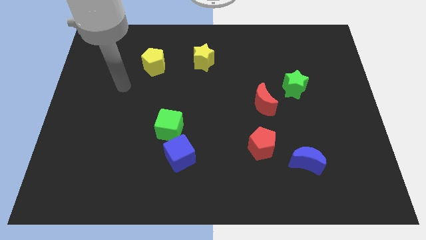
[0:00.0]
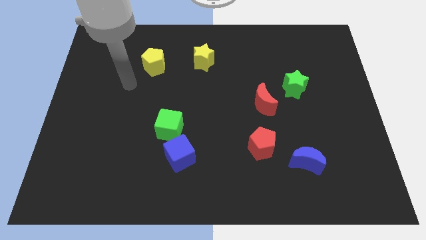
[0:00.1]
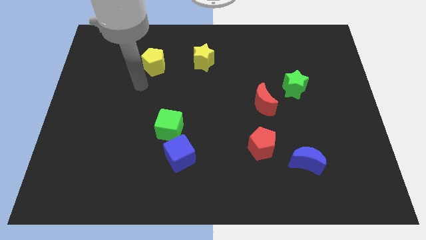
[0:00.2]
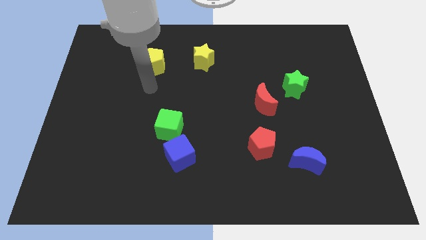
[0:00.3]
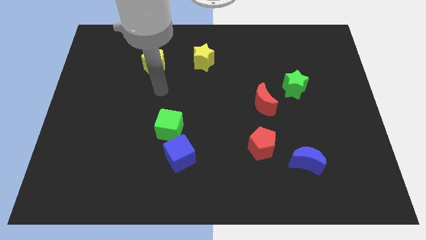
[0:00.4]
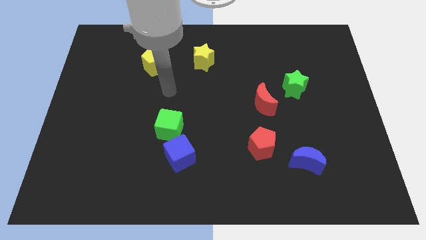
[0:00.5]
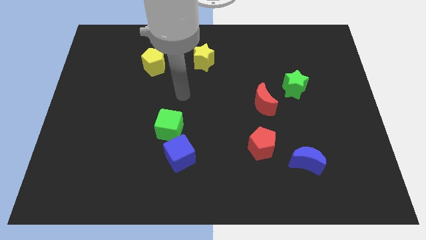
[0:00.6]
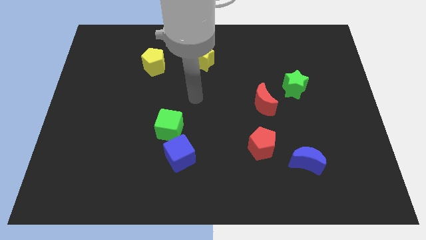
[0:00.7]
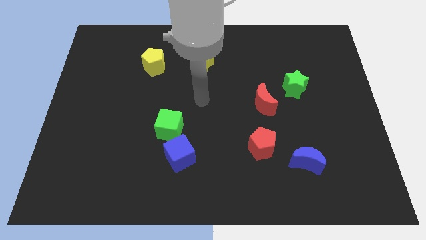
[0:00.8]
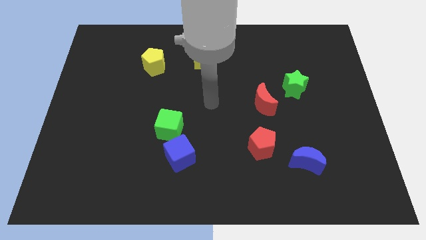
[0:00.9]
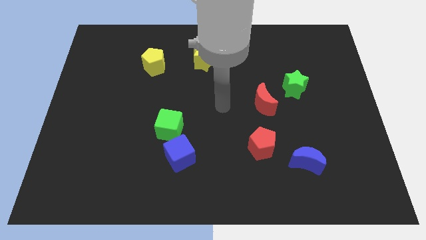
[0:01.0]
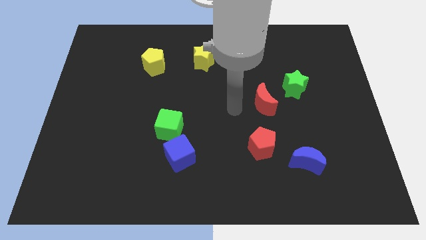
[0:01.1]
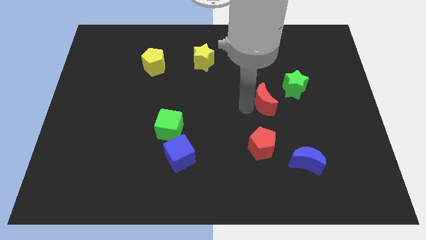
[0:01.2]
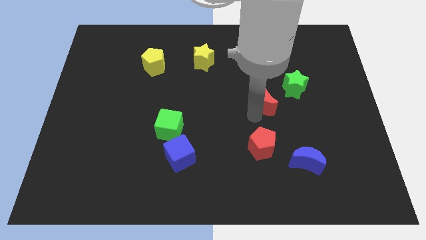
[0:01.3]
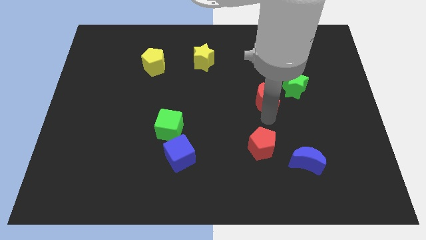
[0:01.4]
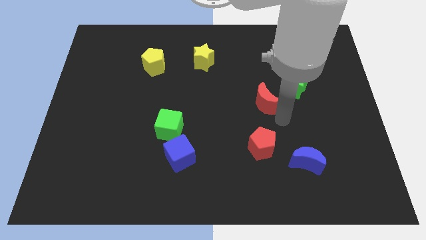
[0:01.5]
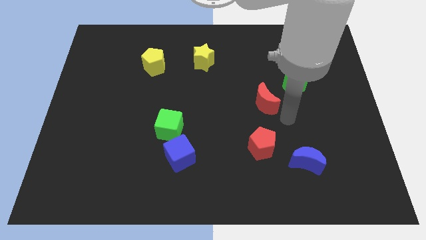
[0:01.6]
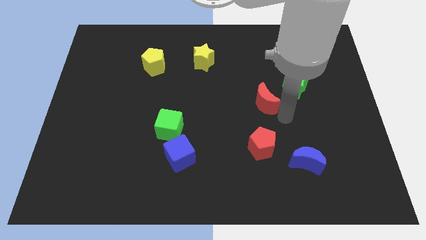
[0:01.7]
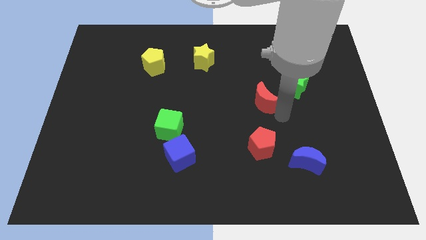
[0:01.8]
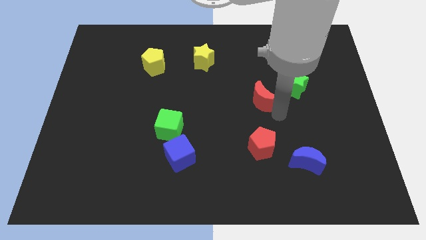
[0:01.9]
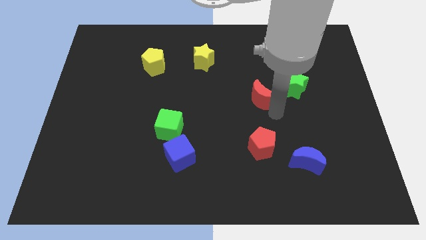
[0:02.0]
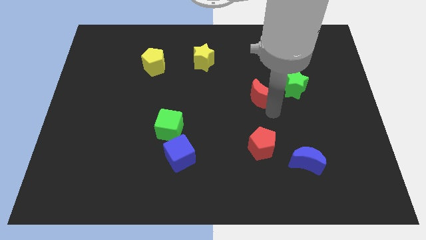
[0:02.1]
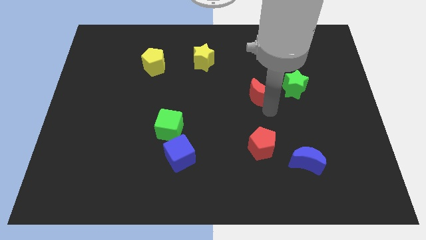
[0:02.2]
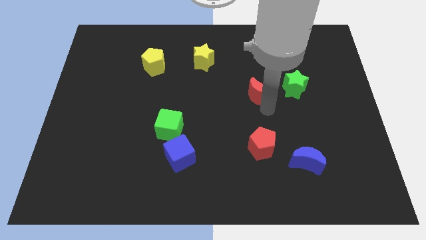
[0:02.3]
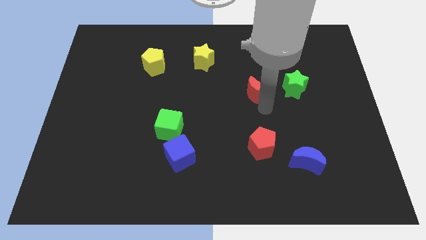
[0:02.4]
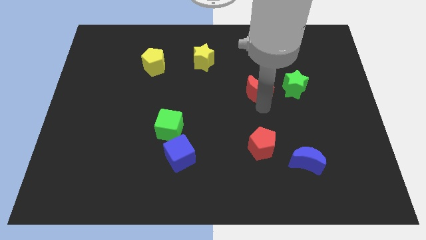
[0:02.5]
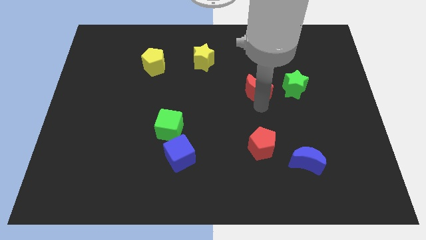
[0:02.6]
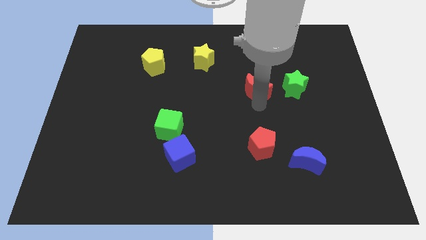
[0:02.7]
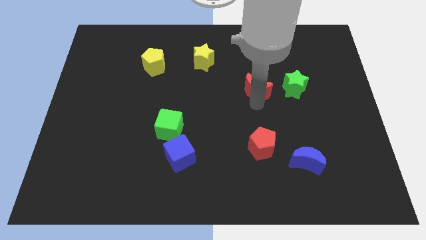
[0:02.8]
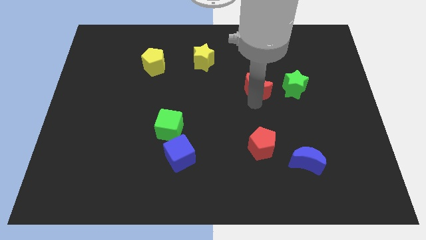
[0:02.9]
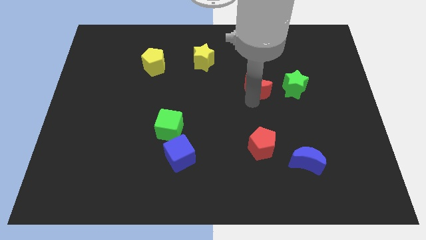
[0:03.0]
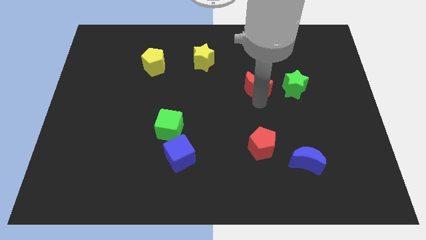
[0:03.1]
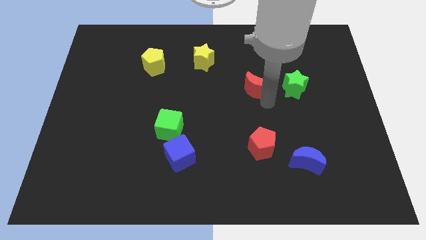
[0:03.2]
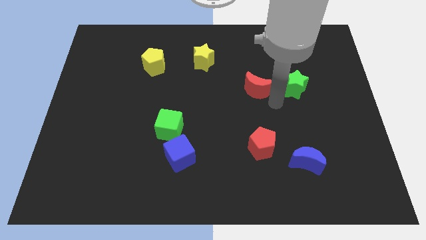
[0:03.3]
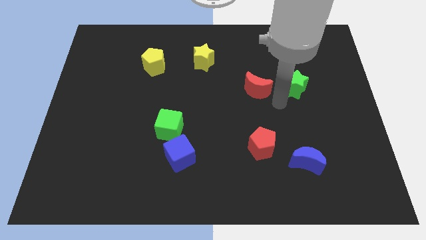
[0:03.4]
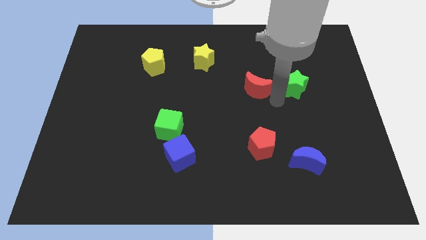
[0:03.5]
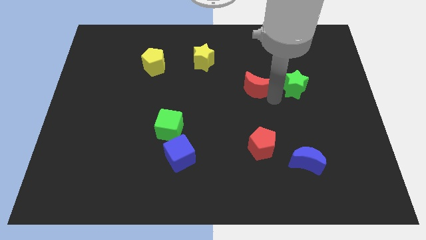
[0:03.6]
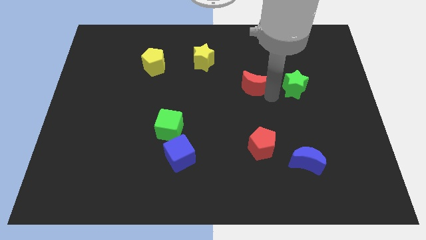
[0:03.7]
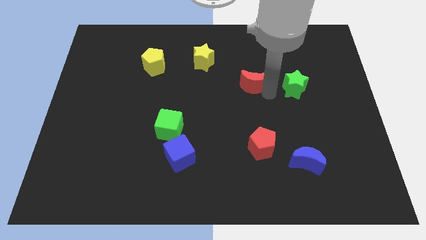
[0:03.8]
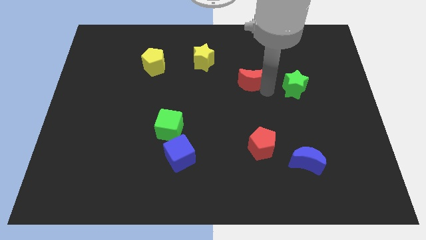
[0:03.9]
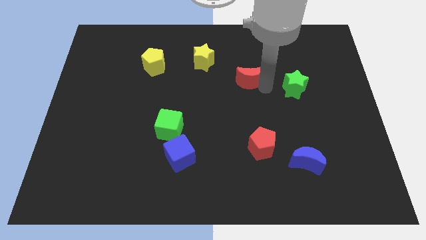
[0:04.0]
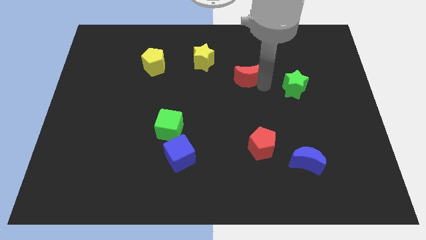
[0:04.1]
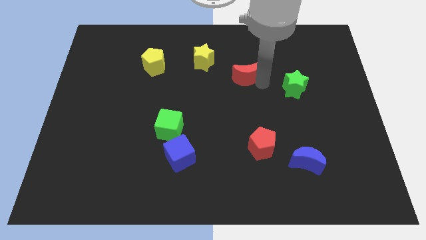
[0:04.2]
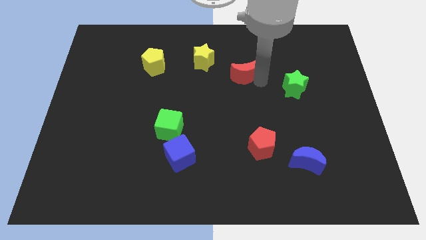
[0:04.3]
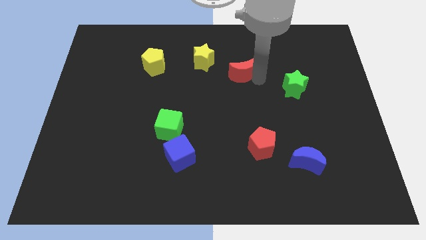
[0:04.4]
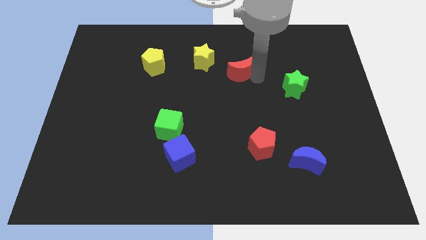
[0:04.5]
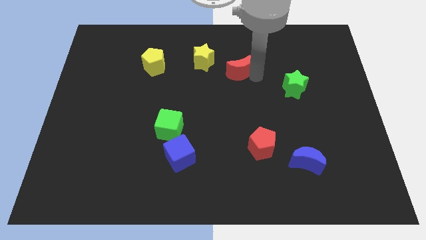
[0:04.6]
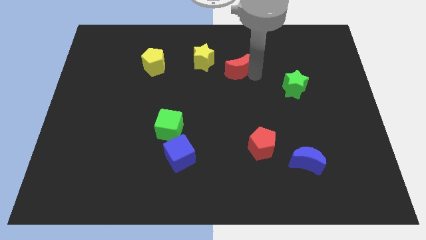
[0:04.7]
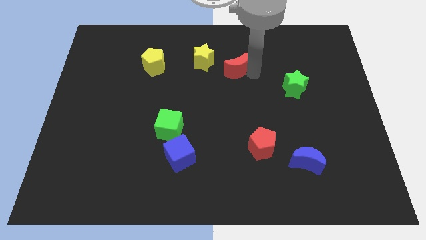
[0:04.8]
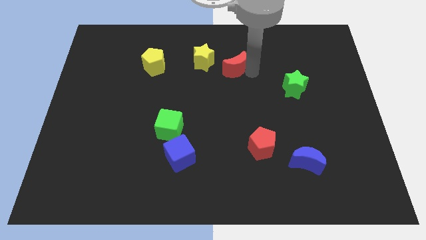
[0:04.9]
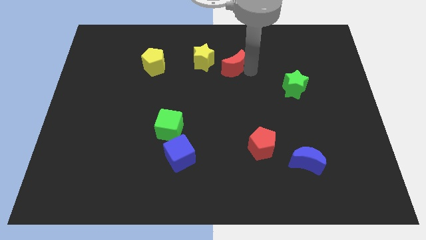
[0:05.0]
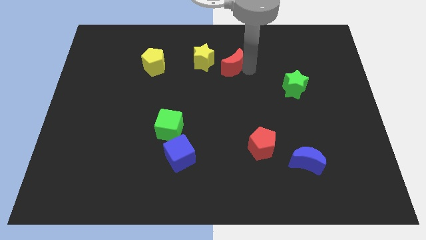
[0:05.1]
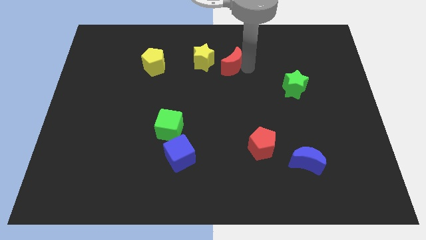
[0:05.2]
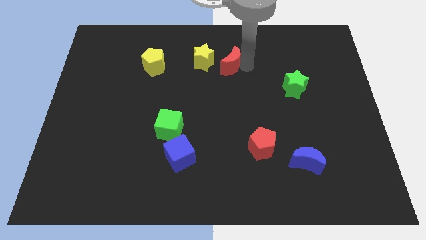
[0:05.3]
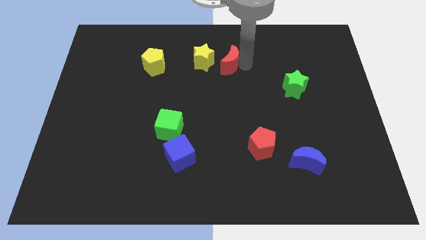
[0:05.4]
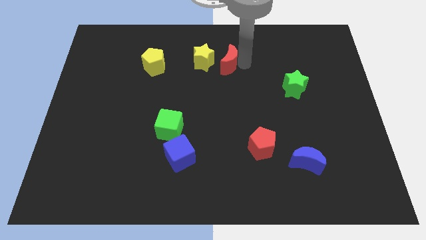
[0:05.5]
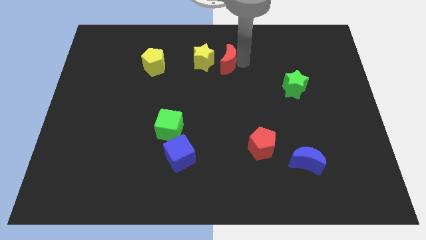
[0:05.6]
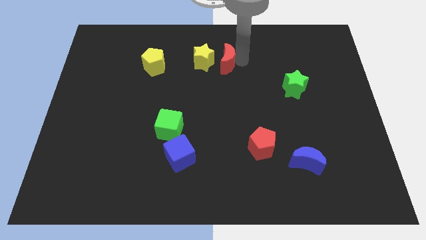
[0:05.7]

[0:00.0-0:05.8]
slide the red moon close to the yellow star

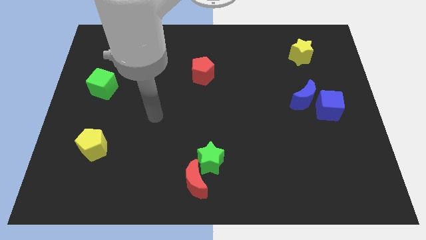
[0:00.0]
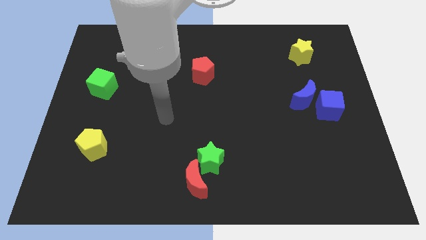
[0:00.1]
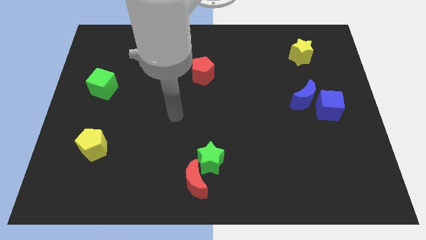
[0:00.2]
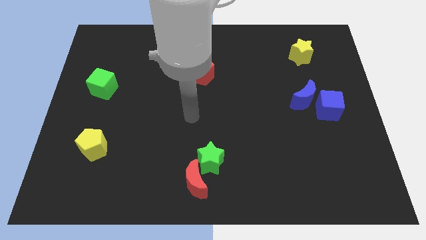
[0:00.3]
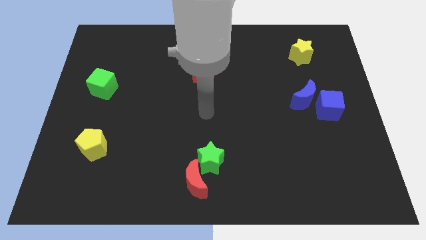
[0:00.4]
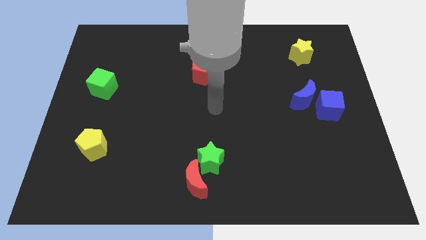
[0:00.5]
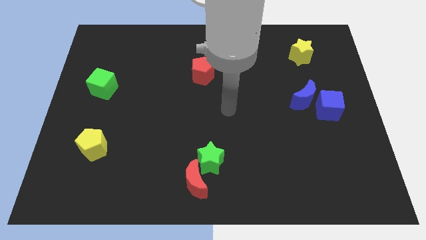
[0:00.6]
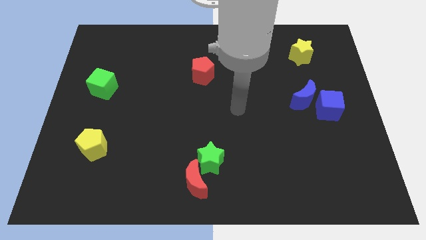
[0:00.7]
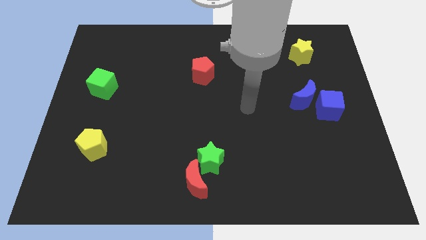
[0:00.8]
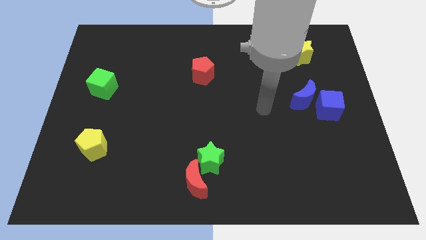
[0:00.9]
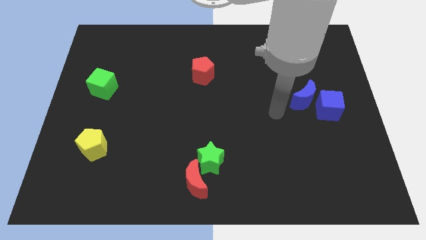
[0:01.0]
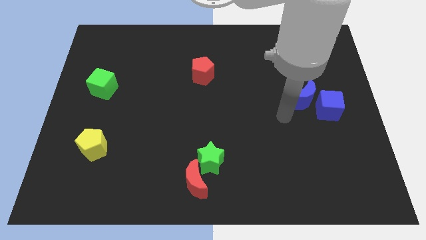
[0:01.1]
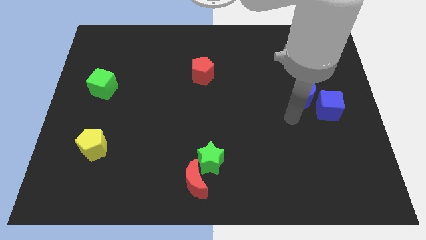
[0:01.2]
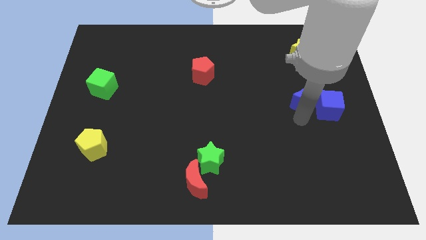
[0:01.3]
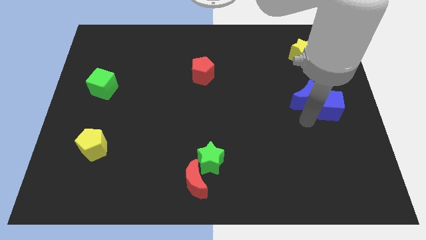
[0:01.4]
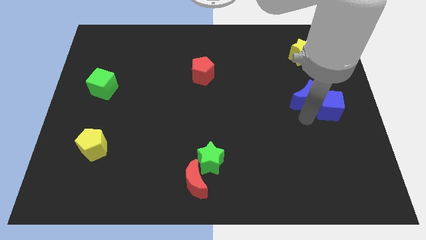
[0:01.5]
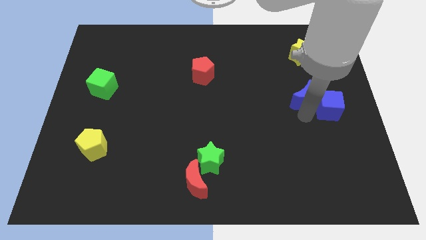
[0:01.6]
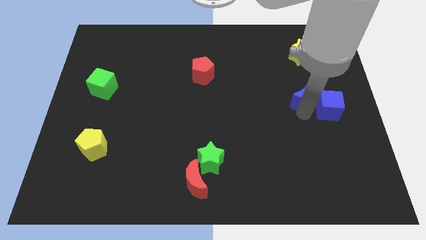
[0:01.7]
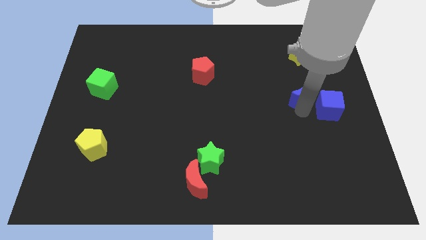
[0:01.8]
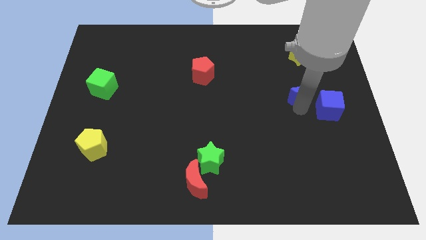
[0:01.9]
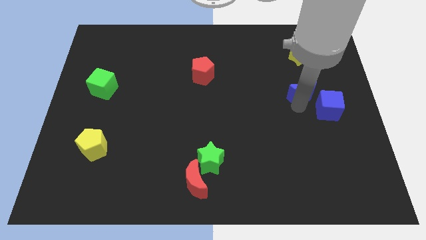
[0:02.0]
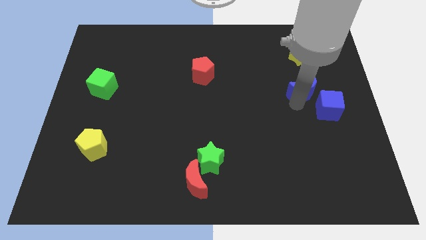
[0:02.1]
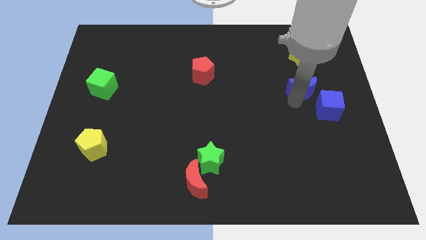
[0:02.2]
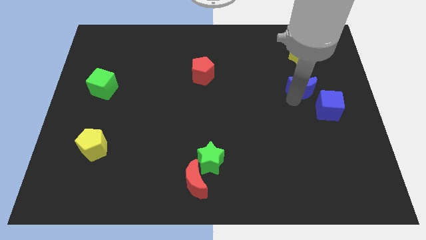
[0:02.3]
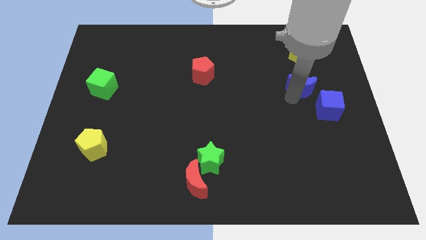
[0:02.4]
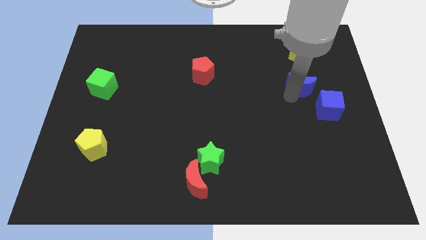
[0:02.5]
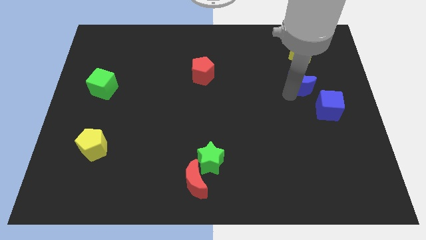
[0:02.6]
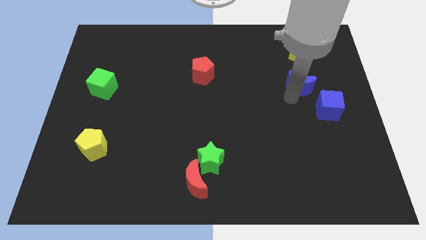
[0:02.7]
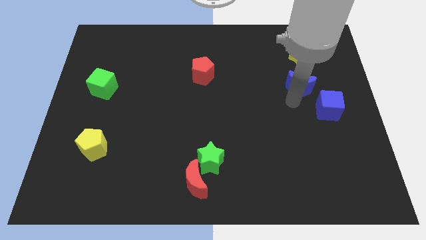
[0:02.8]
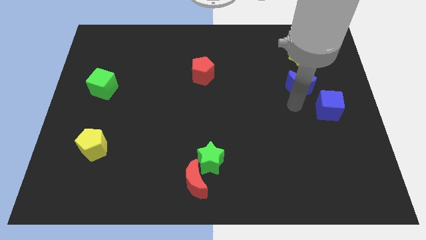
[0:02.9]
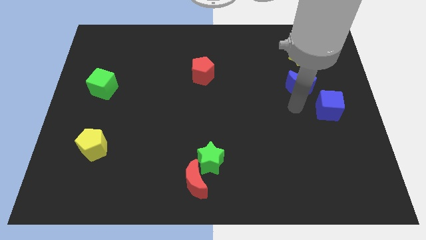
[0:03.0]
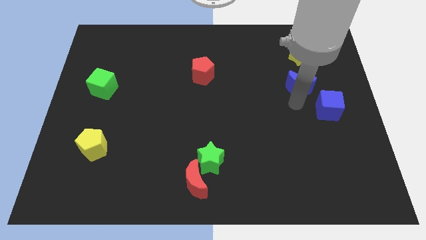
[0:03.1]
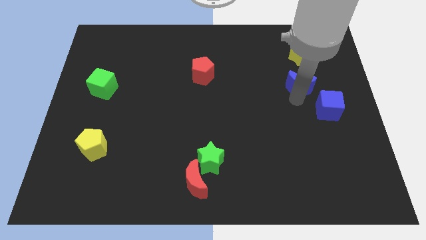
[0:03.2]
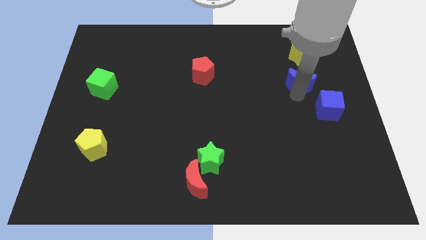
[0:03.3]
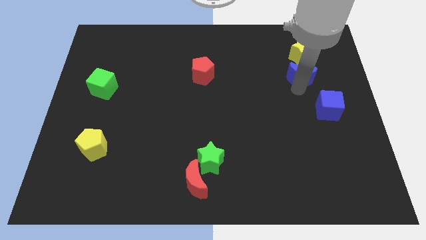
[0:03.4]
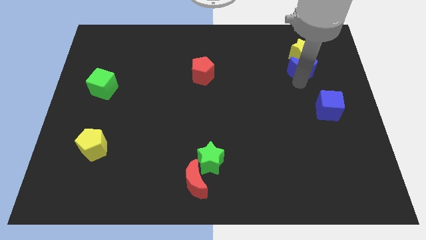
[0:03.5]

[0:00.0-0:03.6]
move the blue moon close to the yellow star
